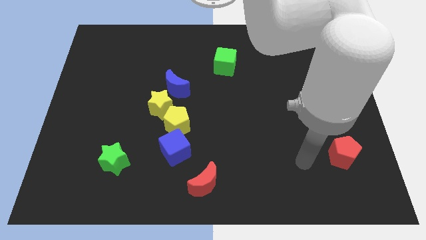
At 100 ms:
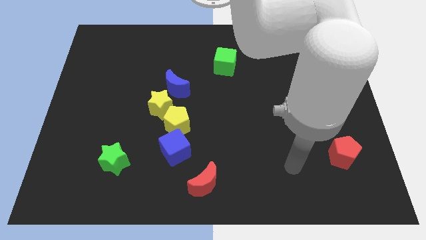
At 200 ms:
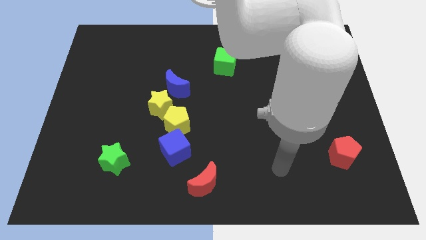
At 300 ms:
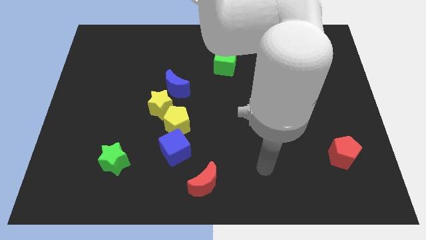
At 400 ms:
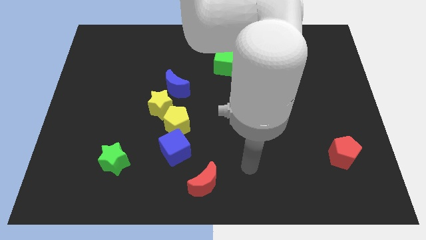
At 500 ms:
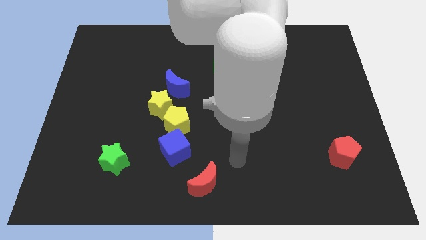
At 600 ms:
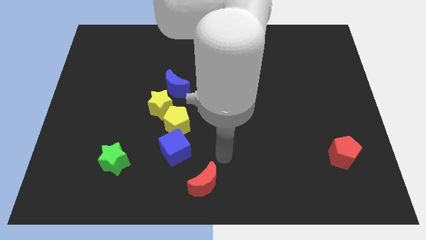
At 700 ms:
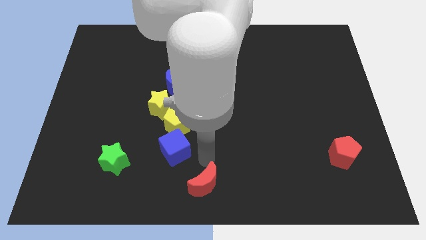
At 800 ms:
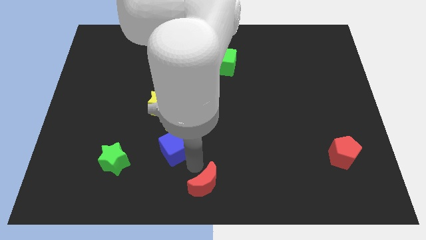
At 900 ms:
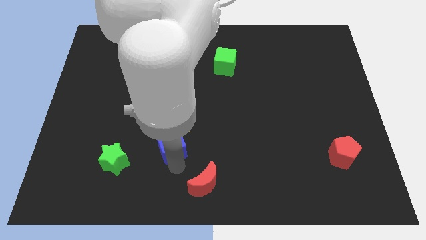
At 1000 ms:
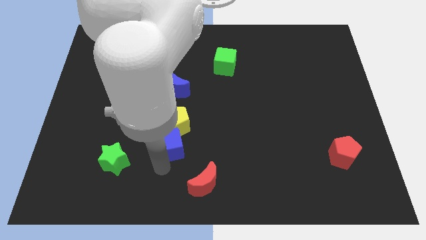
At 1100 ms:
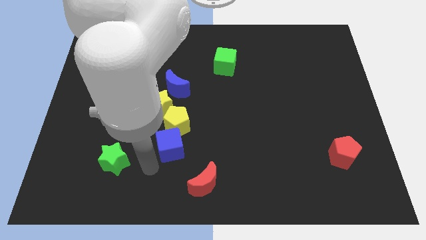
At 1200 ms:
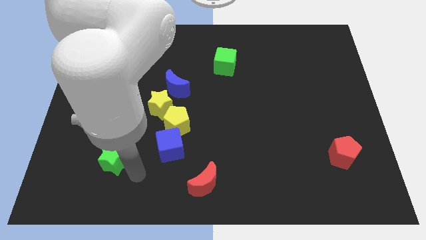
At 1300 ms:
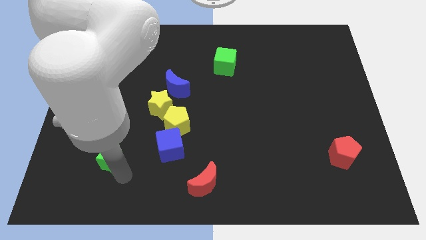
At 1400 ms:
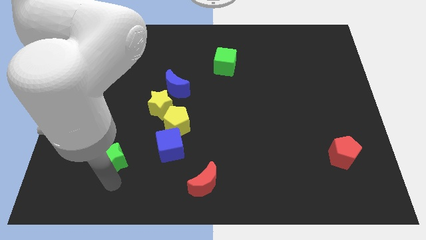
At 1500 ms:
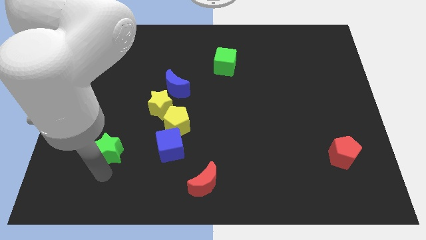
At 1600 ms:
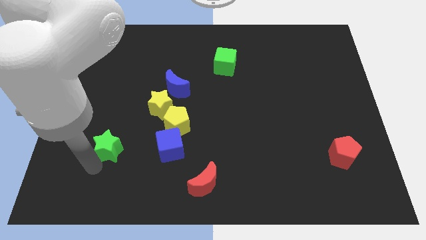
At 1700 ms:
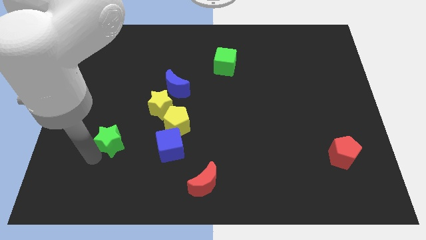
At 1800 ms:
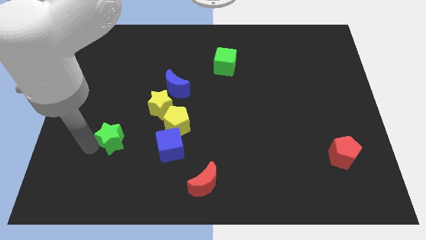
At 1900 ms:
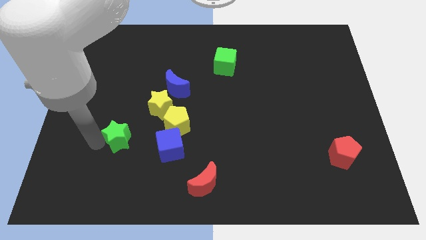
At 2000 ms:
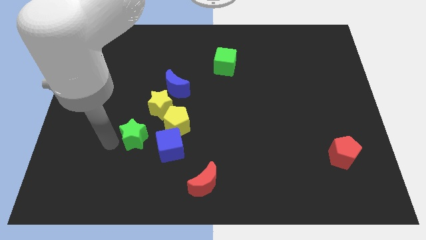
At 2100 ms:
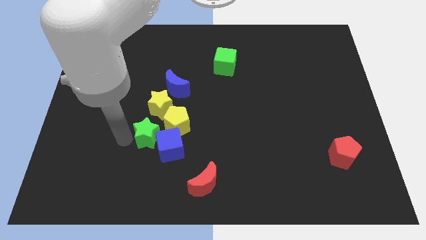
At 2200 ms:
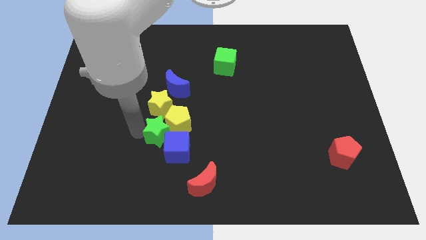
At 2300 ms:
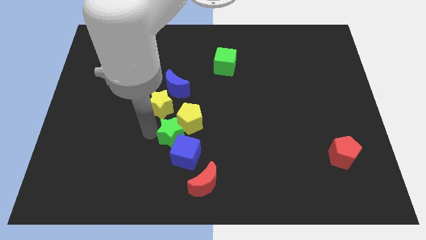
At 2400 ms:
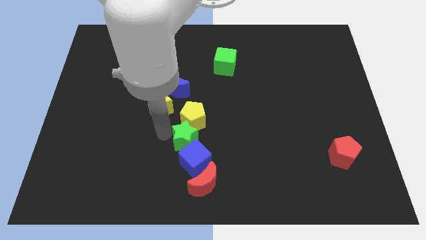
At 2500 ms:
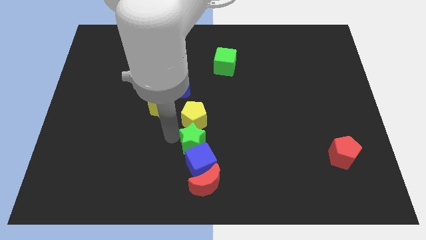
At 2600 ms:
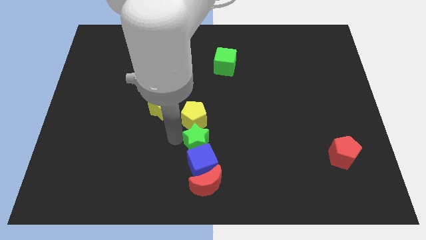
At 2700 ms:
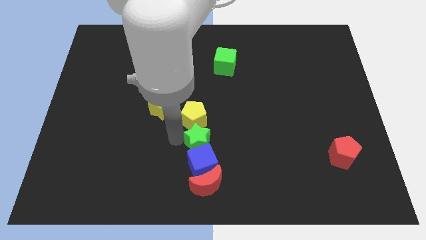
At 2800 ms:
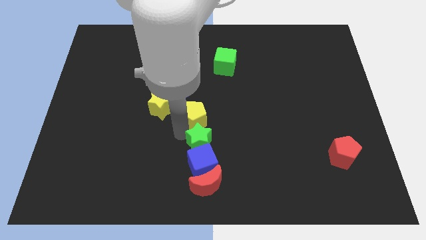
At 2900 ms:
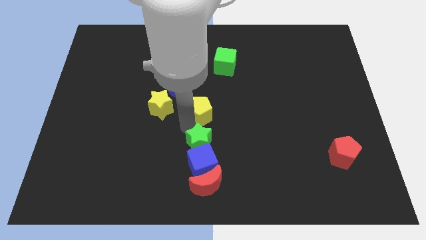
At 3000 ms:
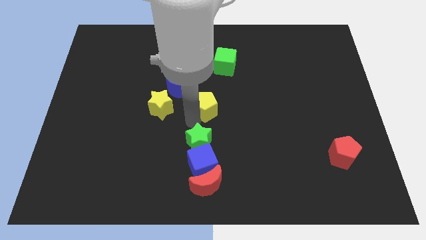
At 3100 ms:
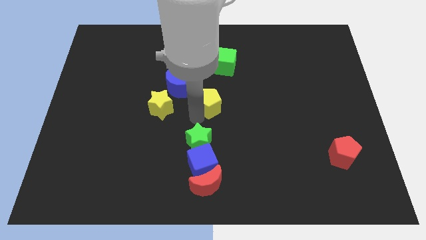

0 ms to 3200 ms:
separate the yellow pentagon from the yellow star and blue cube

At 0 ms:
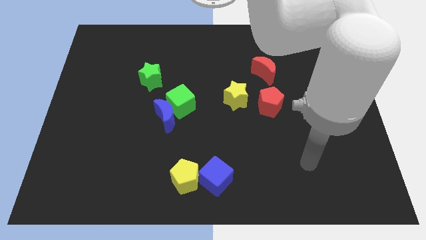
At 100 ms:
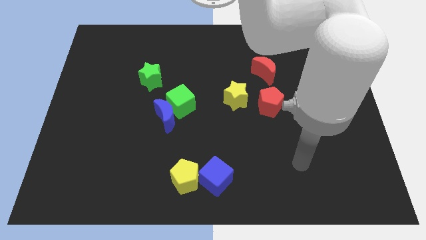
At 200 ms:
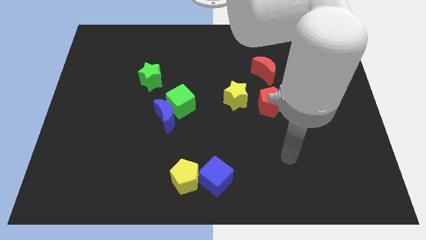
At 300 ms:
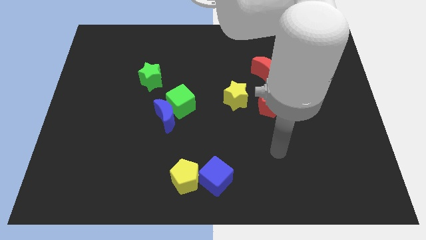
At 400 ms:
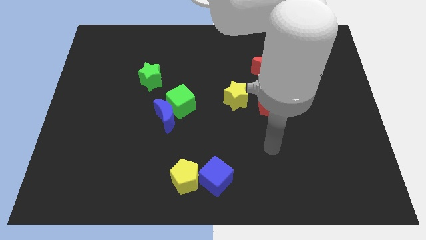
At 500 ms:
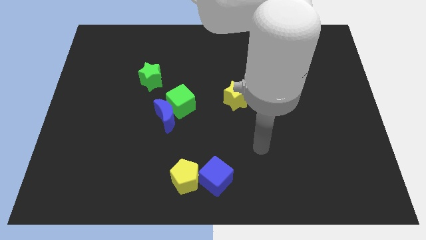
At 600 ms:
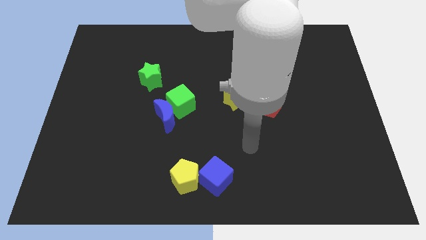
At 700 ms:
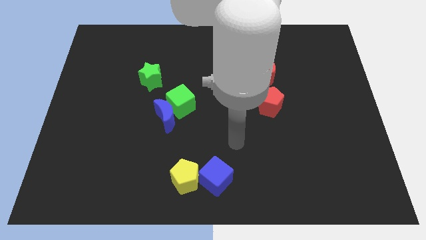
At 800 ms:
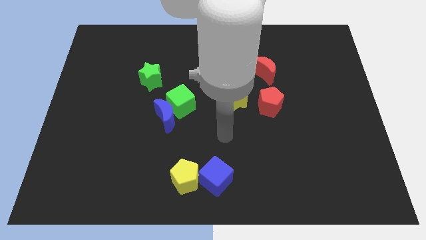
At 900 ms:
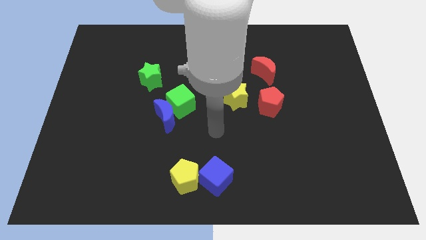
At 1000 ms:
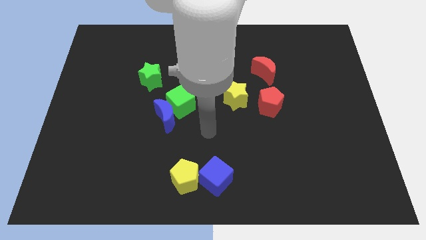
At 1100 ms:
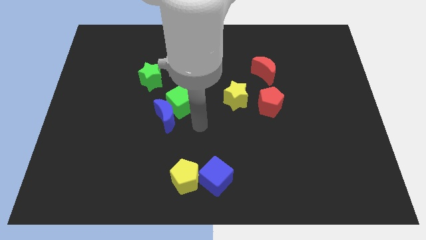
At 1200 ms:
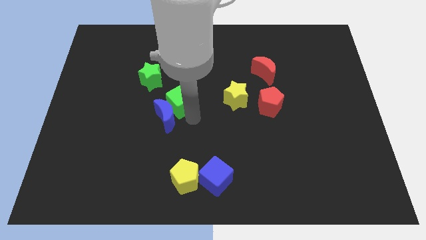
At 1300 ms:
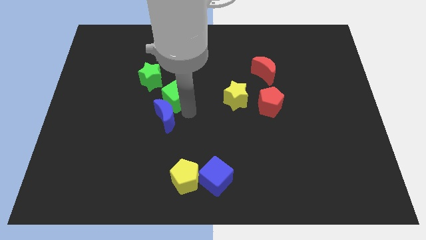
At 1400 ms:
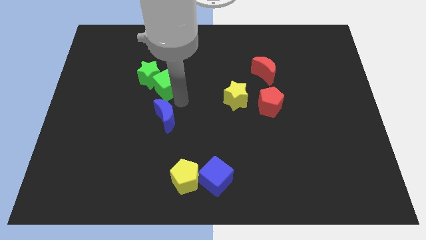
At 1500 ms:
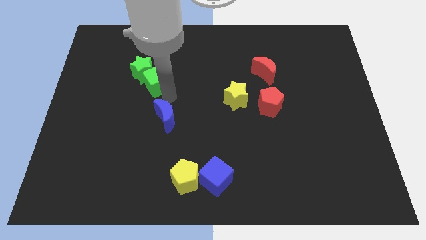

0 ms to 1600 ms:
move the blue moon away from the green cube

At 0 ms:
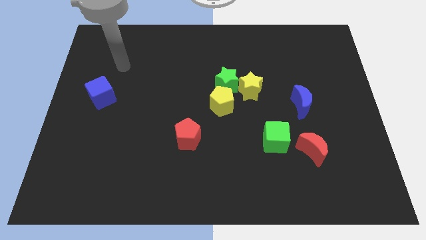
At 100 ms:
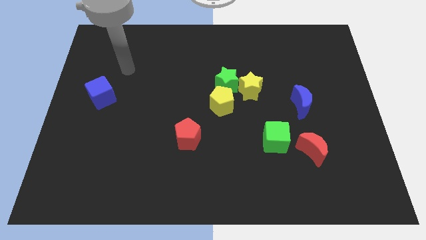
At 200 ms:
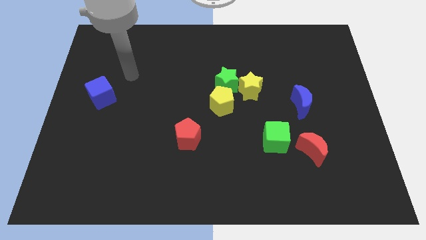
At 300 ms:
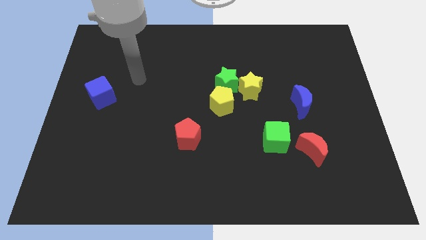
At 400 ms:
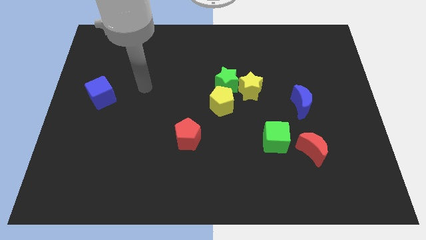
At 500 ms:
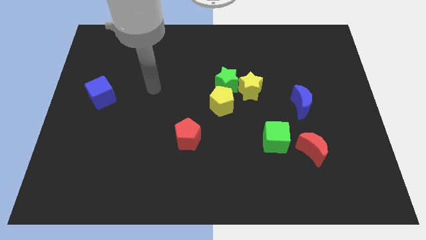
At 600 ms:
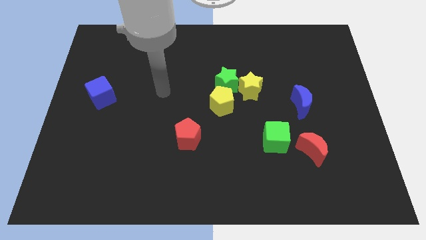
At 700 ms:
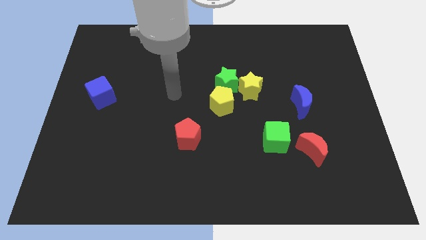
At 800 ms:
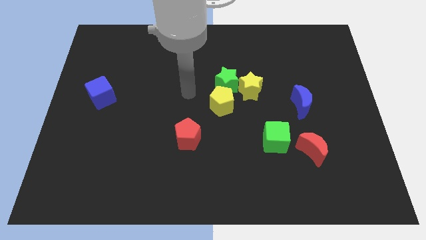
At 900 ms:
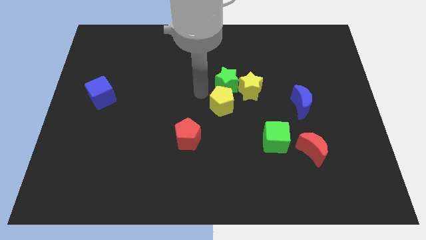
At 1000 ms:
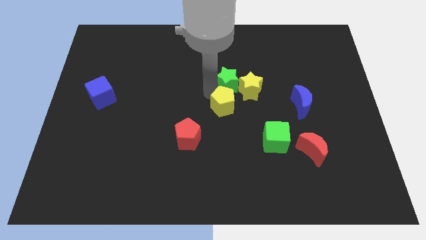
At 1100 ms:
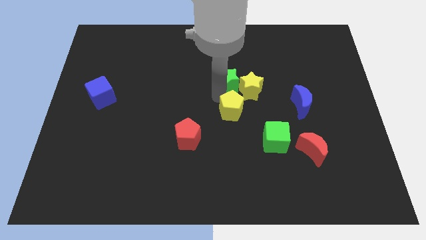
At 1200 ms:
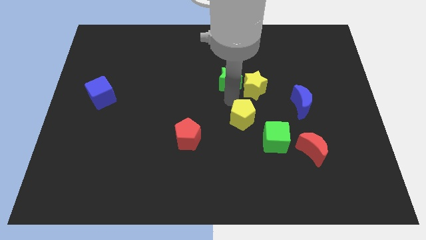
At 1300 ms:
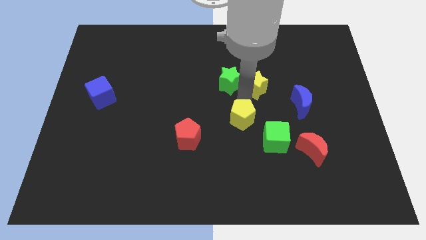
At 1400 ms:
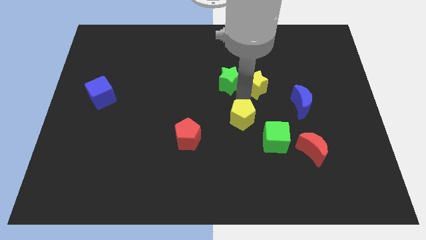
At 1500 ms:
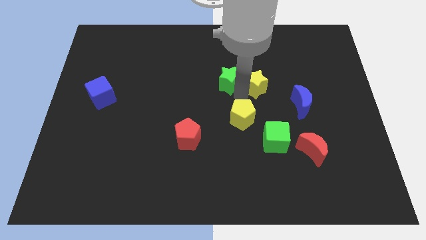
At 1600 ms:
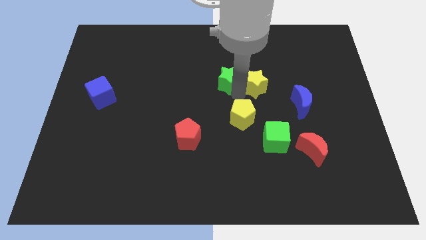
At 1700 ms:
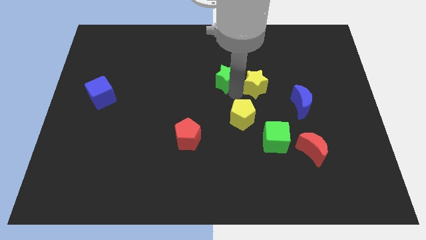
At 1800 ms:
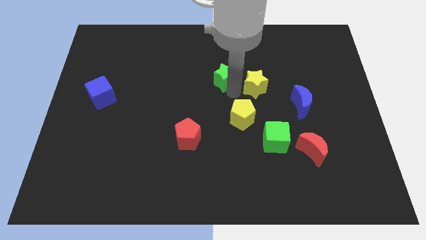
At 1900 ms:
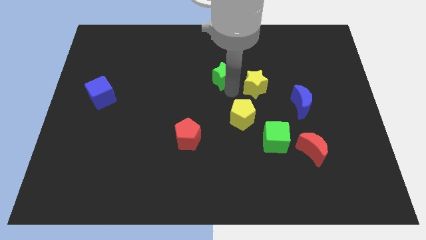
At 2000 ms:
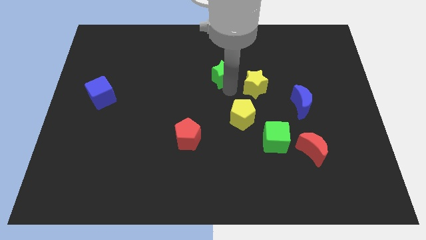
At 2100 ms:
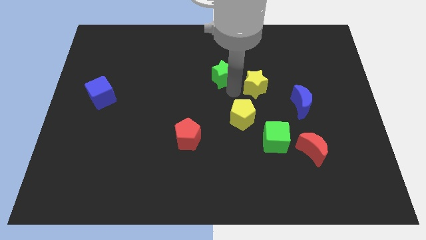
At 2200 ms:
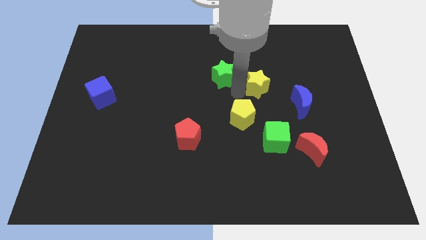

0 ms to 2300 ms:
separate the green star from the yellow star and yellow pentagon

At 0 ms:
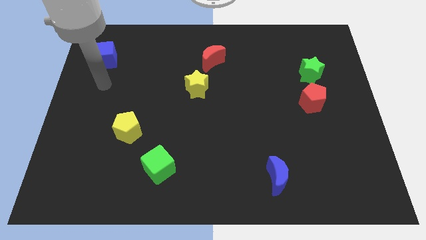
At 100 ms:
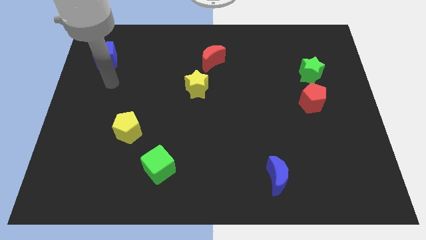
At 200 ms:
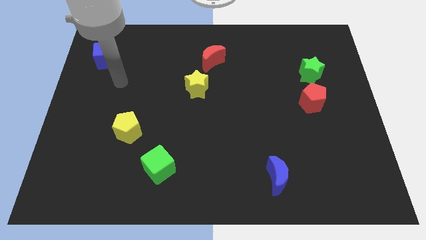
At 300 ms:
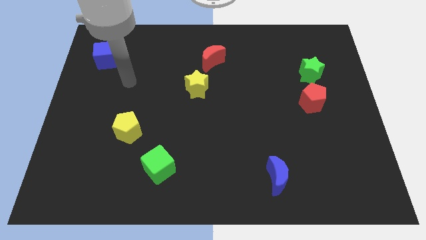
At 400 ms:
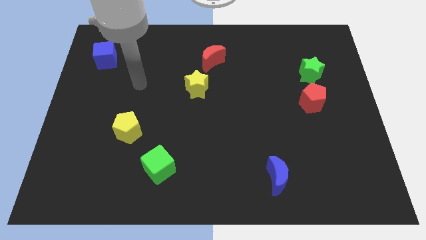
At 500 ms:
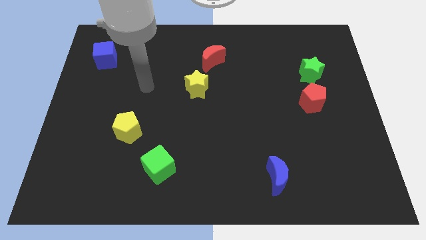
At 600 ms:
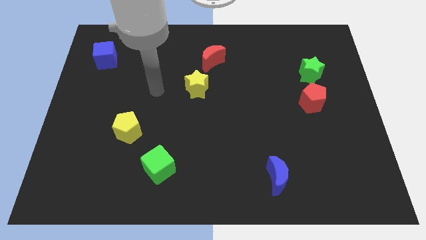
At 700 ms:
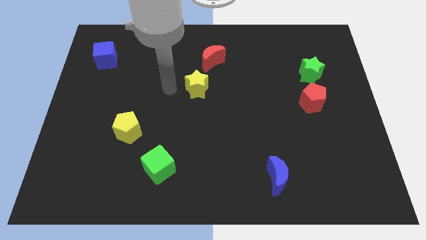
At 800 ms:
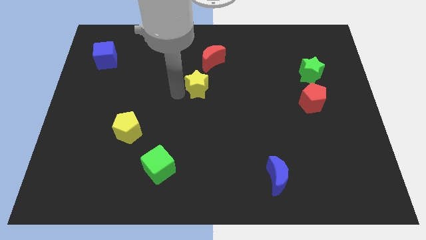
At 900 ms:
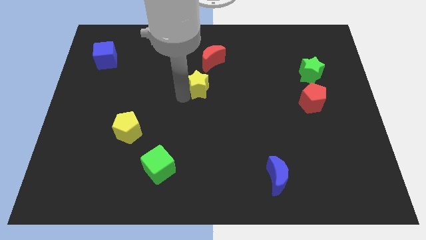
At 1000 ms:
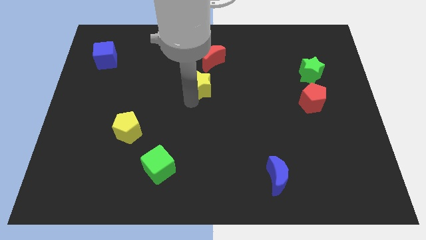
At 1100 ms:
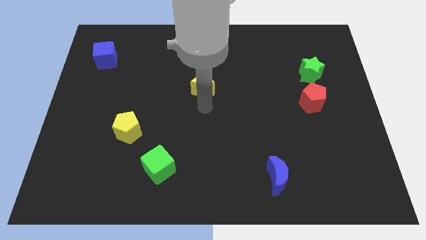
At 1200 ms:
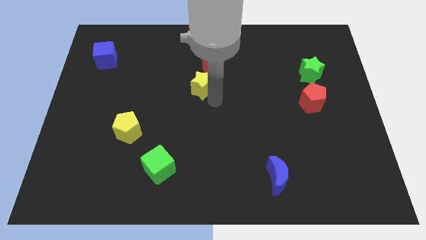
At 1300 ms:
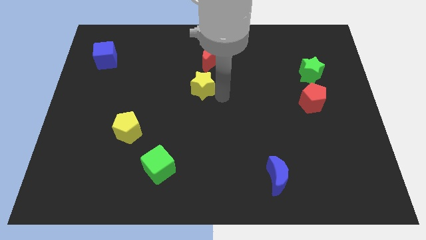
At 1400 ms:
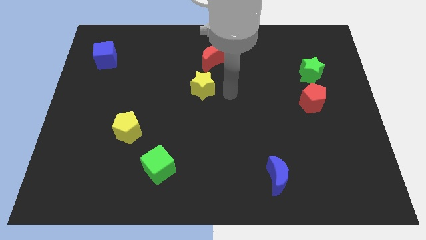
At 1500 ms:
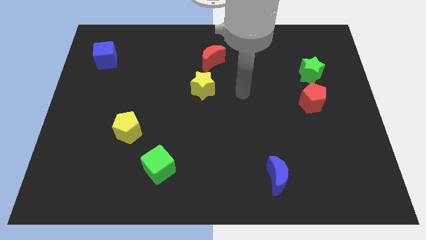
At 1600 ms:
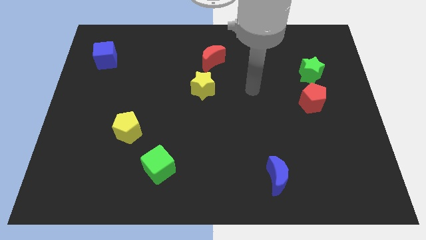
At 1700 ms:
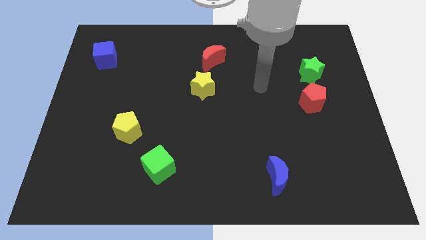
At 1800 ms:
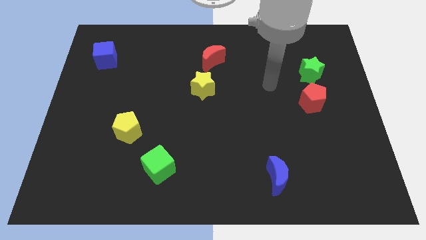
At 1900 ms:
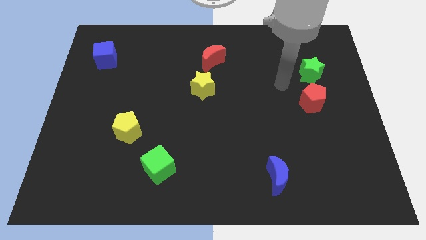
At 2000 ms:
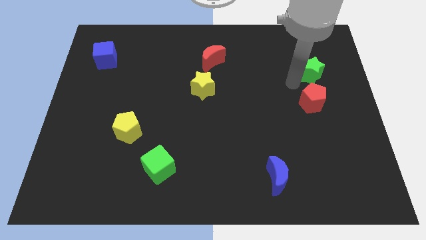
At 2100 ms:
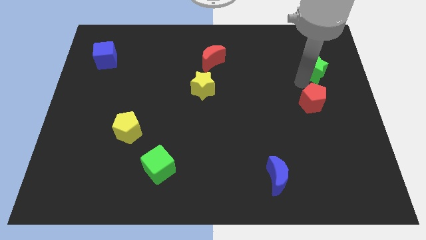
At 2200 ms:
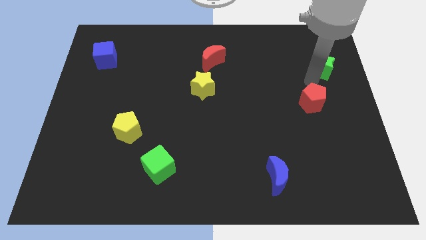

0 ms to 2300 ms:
separate the red pentagon from the green star
